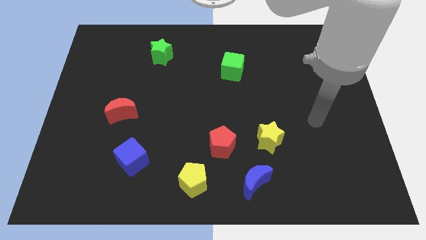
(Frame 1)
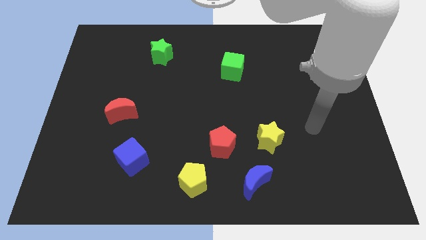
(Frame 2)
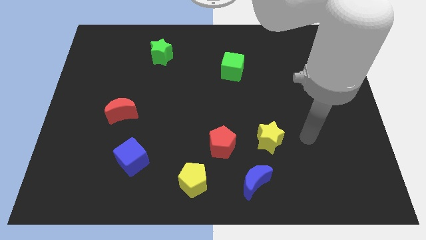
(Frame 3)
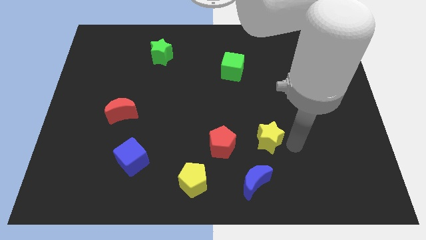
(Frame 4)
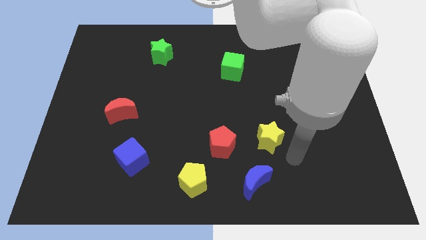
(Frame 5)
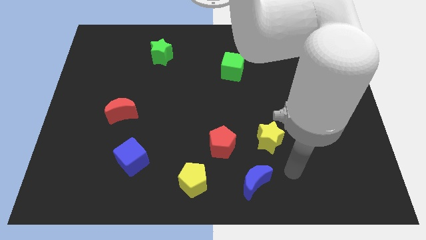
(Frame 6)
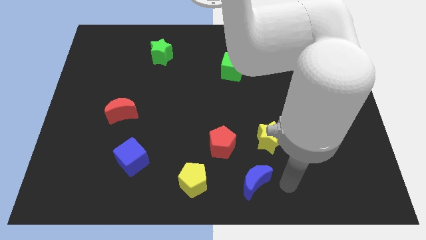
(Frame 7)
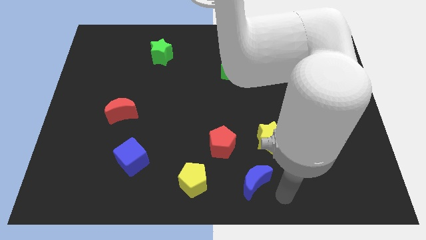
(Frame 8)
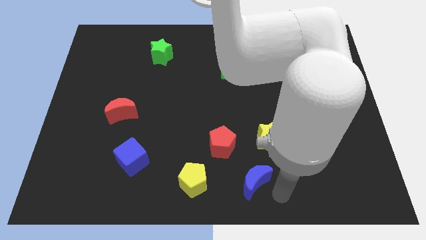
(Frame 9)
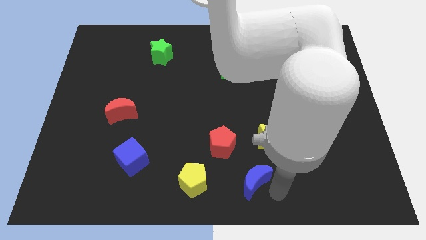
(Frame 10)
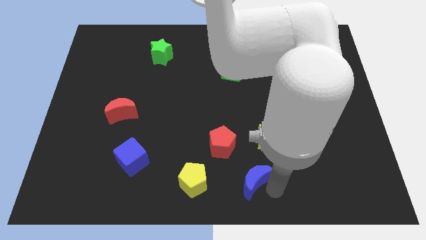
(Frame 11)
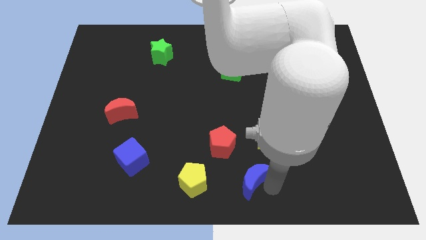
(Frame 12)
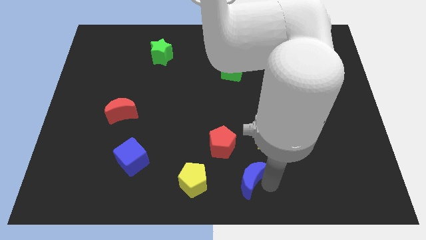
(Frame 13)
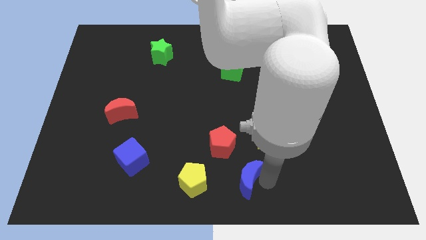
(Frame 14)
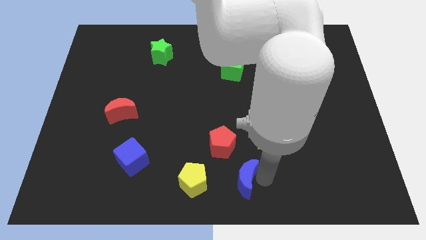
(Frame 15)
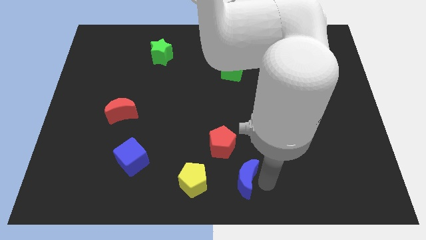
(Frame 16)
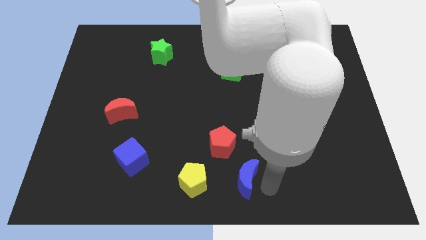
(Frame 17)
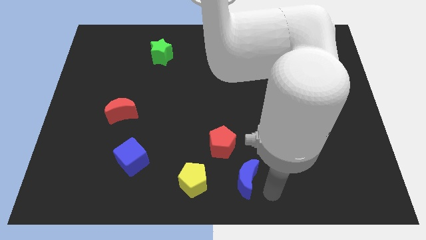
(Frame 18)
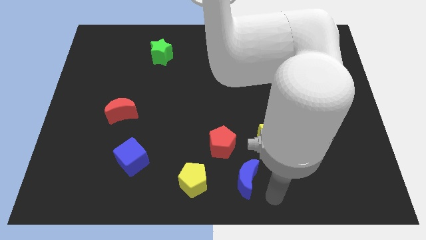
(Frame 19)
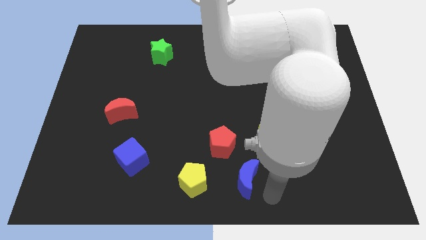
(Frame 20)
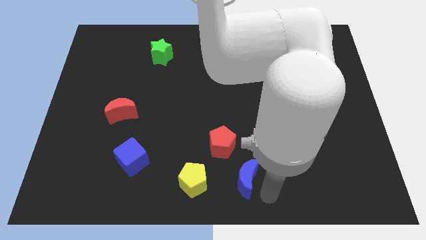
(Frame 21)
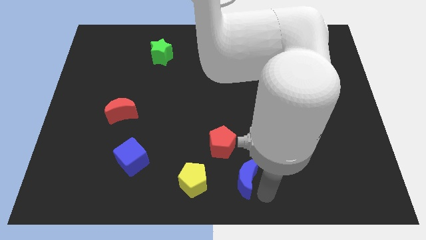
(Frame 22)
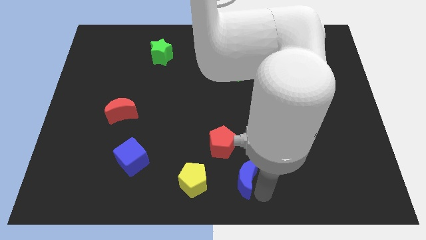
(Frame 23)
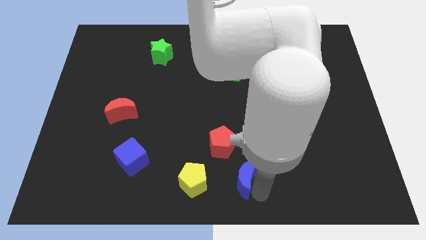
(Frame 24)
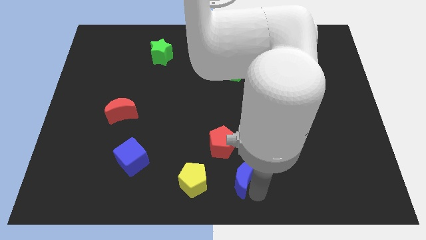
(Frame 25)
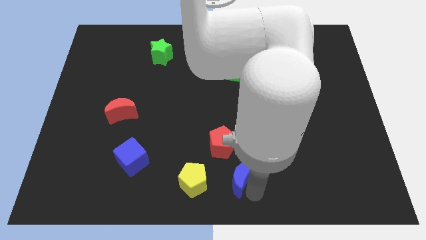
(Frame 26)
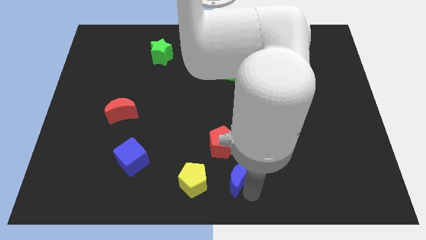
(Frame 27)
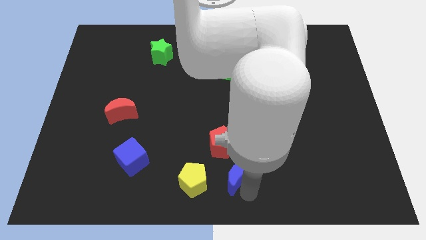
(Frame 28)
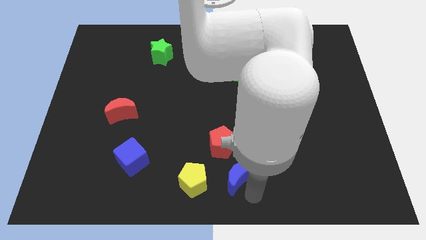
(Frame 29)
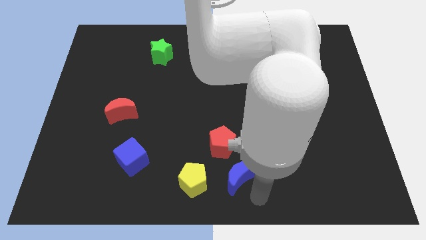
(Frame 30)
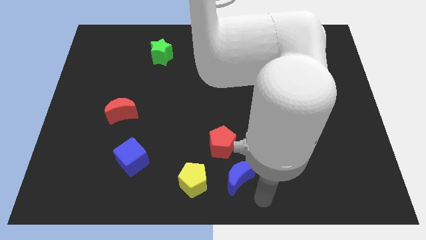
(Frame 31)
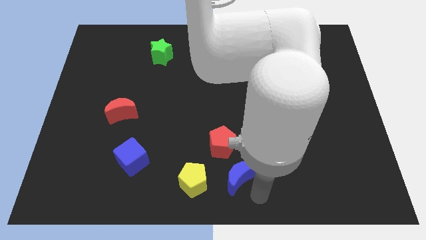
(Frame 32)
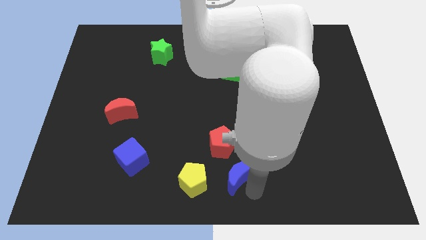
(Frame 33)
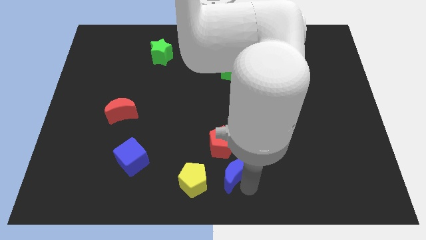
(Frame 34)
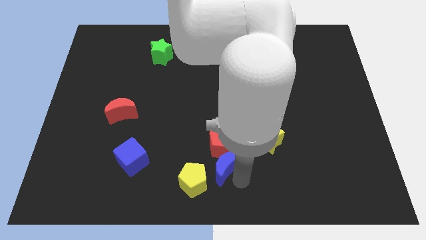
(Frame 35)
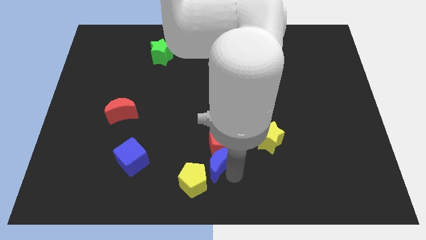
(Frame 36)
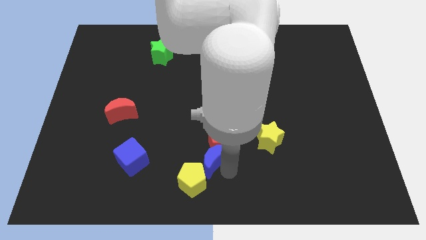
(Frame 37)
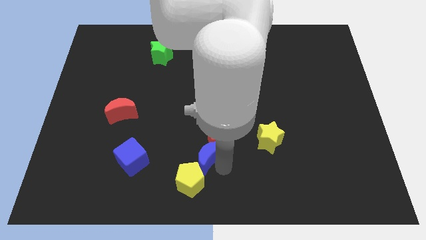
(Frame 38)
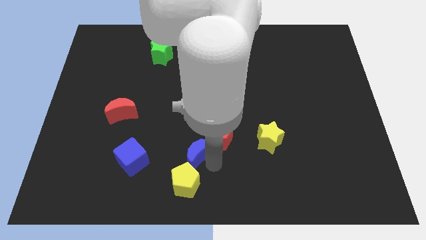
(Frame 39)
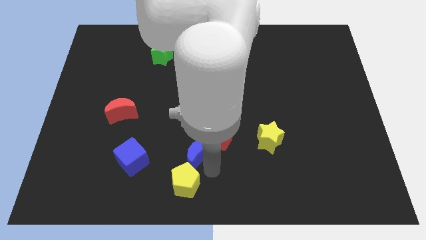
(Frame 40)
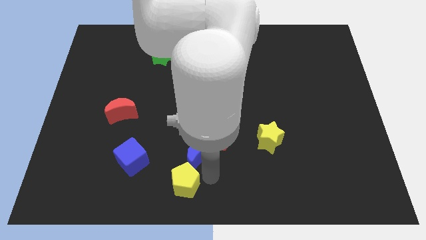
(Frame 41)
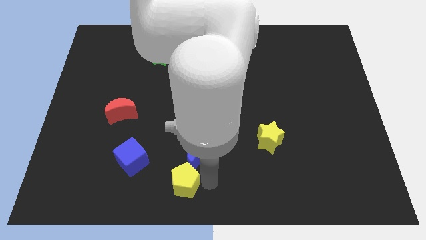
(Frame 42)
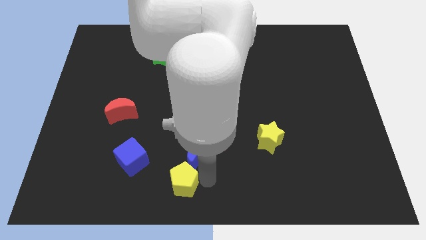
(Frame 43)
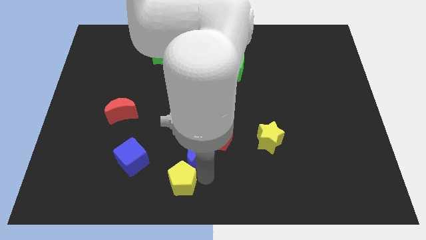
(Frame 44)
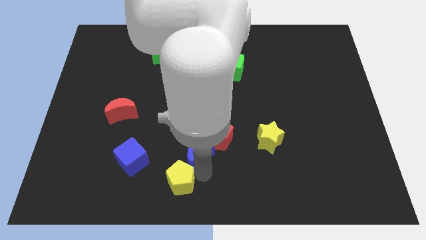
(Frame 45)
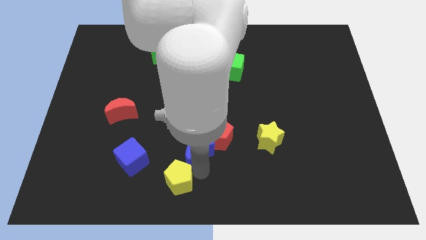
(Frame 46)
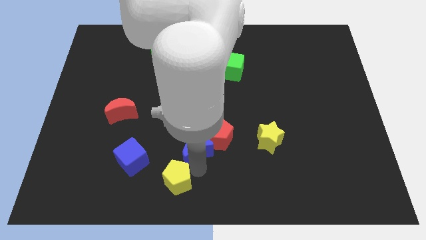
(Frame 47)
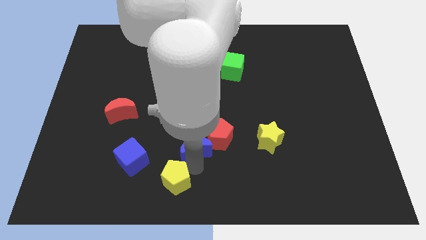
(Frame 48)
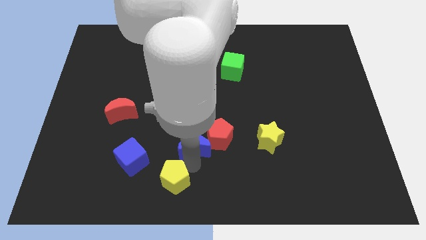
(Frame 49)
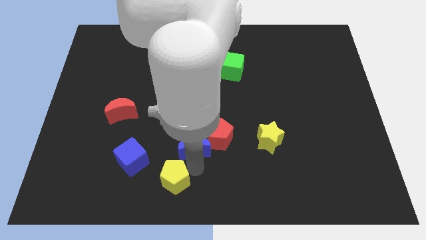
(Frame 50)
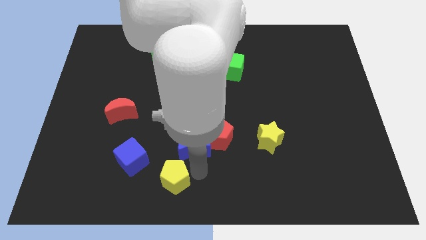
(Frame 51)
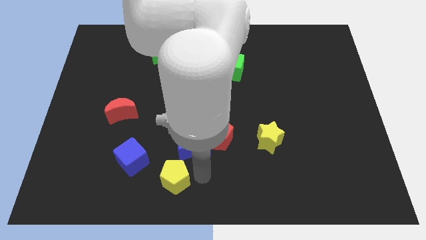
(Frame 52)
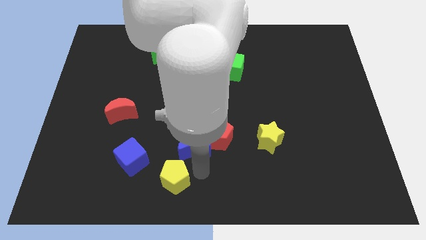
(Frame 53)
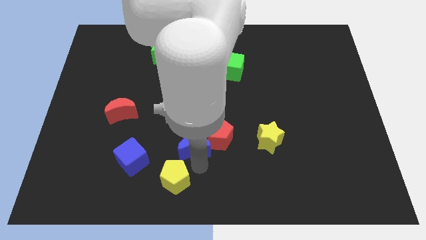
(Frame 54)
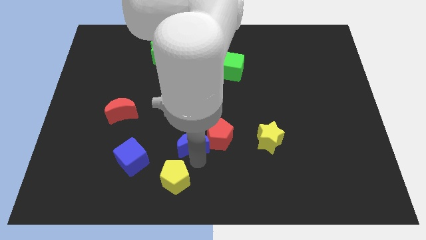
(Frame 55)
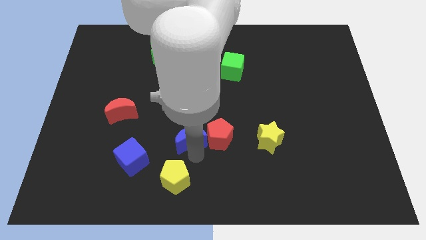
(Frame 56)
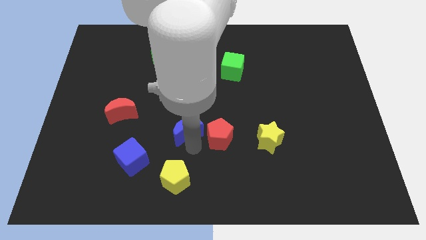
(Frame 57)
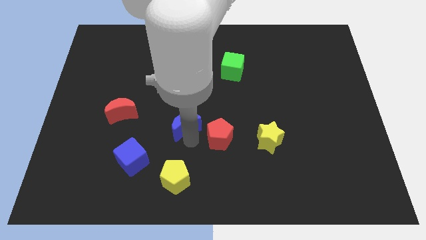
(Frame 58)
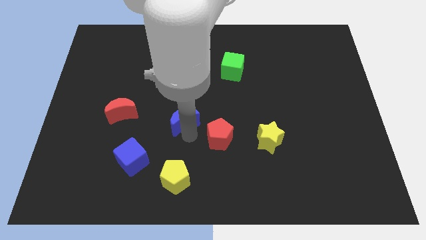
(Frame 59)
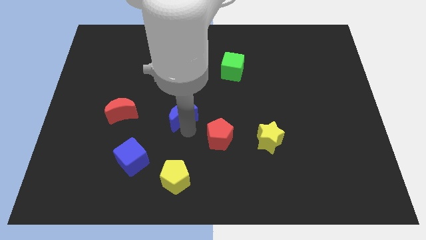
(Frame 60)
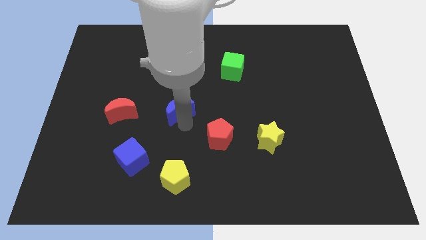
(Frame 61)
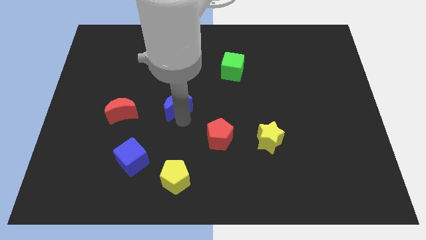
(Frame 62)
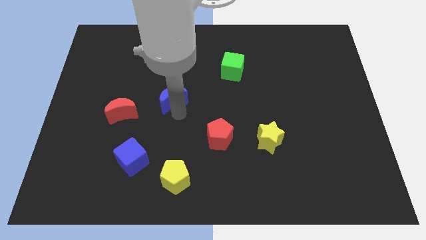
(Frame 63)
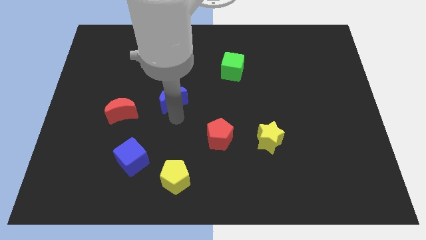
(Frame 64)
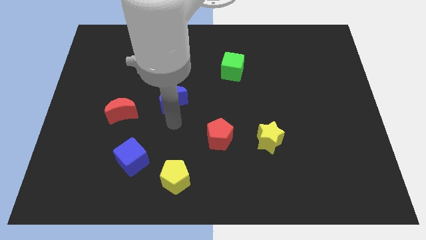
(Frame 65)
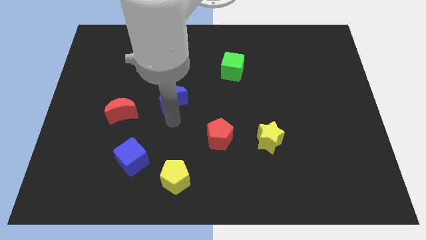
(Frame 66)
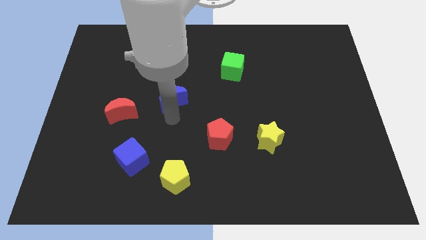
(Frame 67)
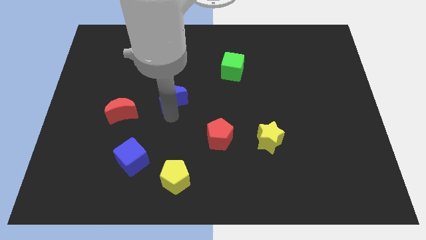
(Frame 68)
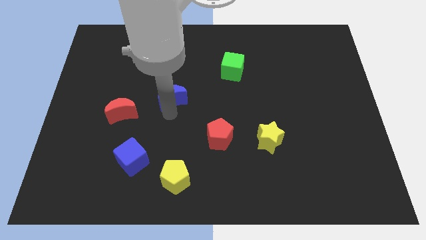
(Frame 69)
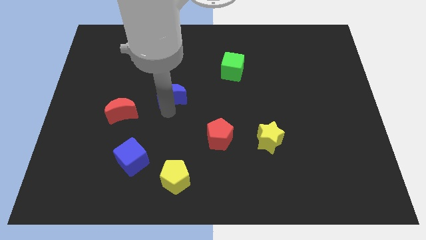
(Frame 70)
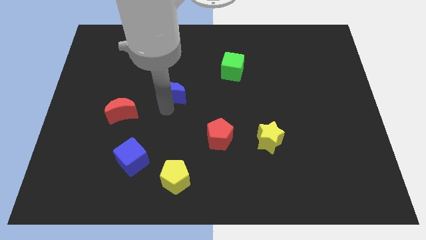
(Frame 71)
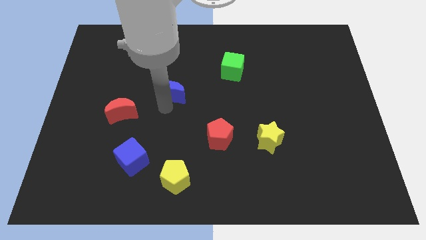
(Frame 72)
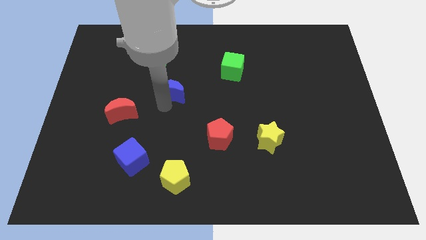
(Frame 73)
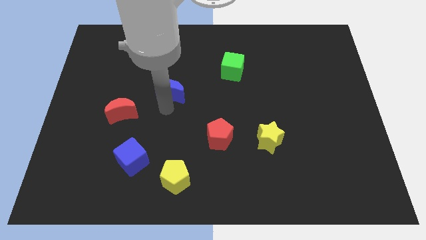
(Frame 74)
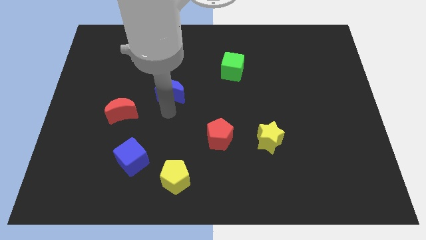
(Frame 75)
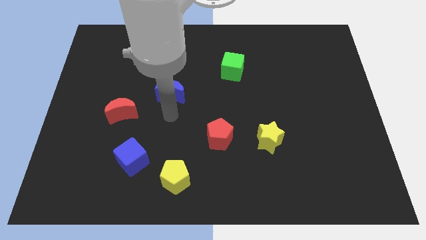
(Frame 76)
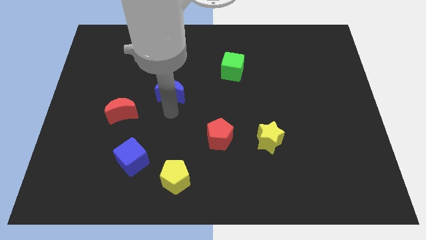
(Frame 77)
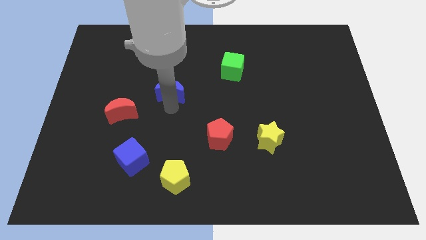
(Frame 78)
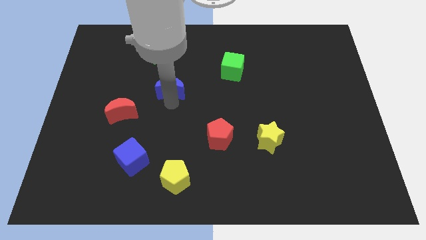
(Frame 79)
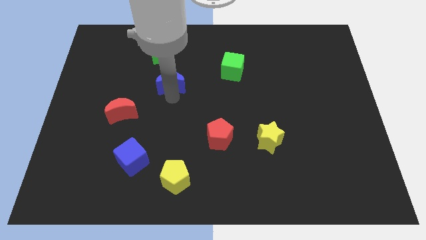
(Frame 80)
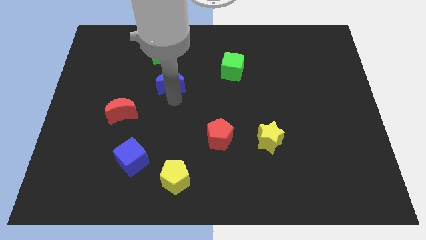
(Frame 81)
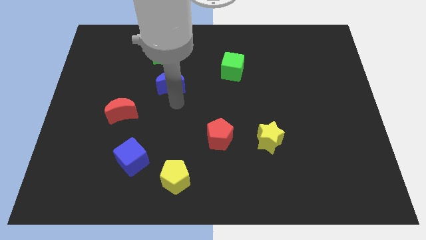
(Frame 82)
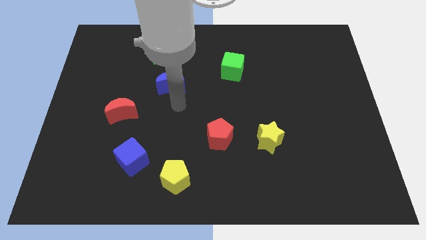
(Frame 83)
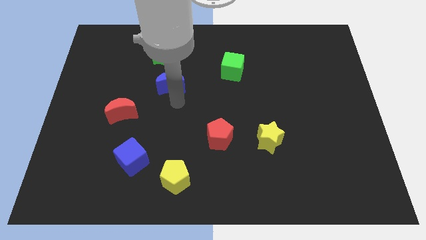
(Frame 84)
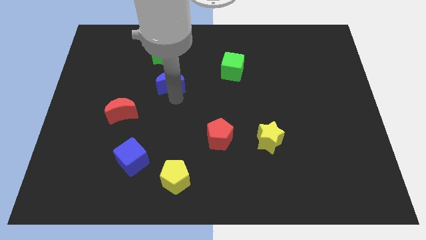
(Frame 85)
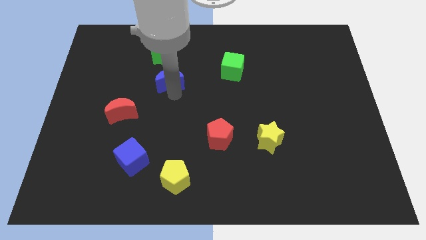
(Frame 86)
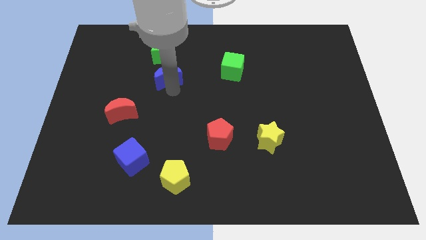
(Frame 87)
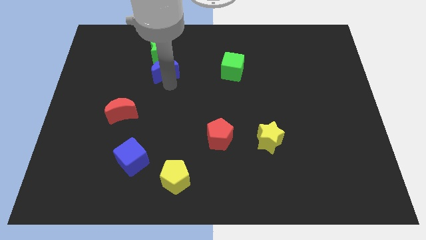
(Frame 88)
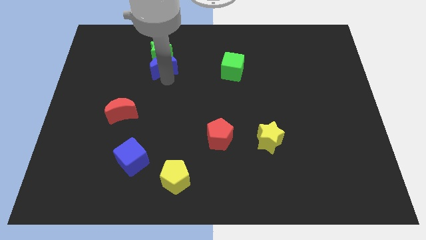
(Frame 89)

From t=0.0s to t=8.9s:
push the blue moon next to the green star
